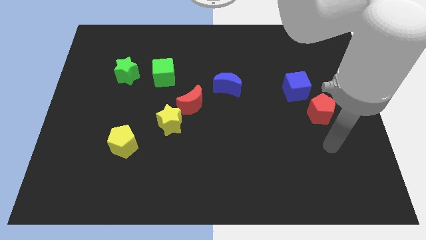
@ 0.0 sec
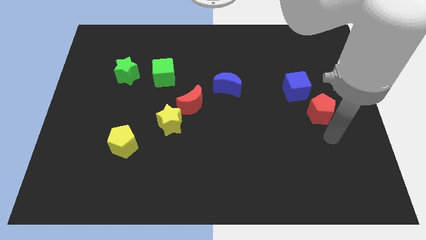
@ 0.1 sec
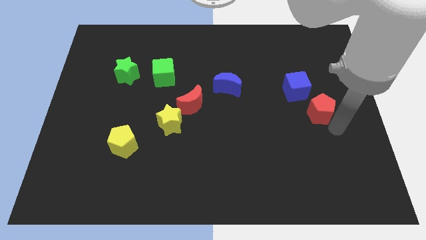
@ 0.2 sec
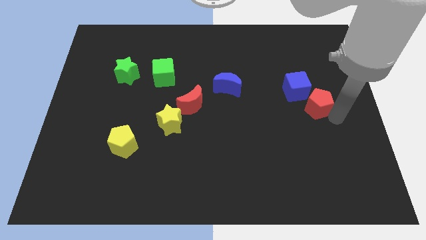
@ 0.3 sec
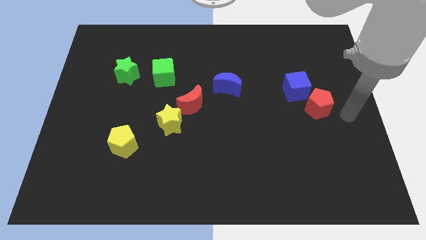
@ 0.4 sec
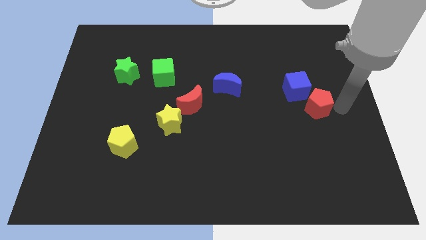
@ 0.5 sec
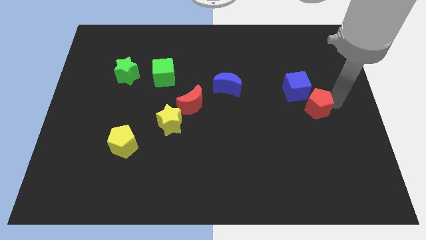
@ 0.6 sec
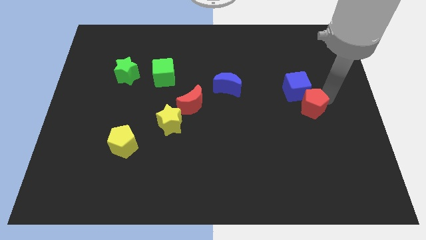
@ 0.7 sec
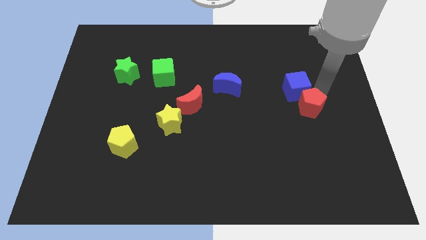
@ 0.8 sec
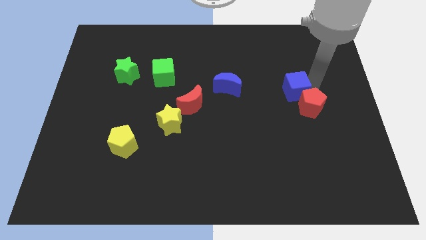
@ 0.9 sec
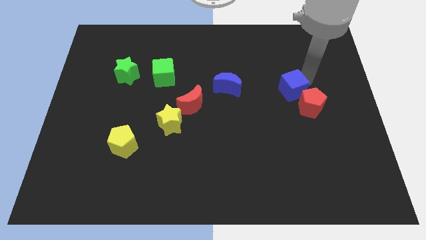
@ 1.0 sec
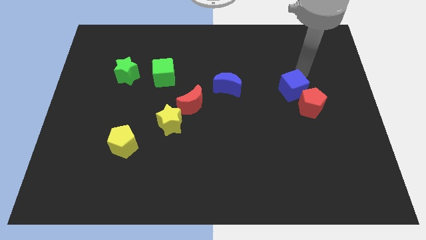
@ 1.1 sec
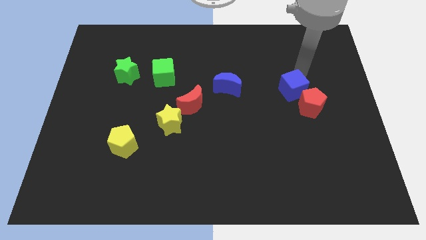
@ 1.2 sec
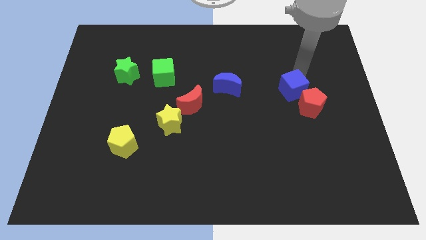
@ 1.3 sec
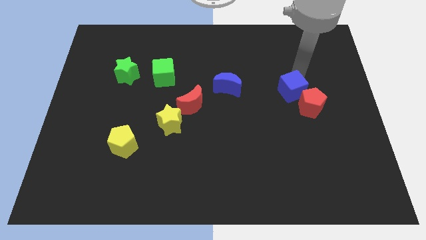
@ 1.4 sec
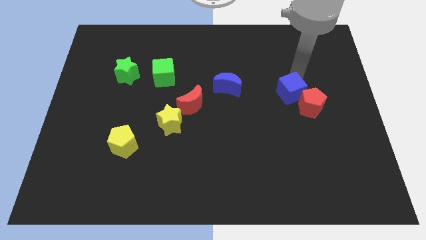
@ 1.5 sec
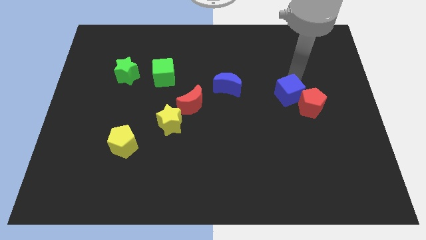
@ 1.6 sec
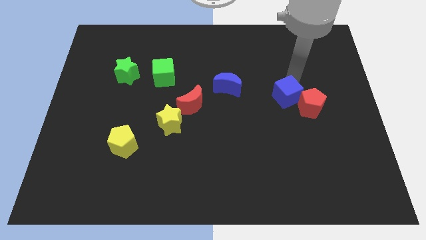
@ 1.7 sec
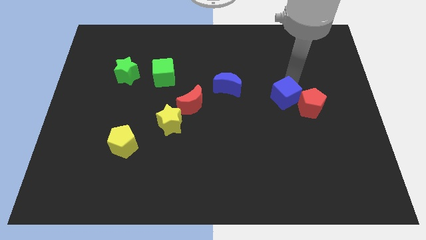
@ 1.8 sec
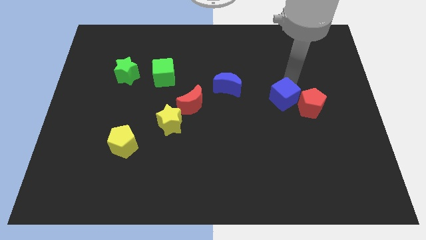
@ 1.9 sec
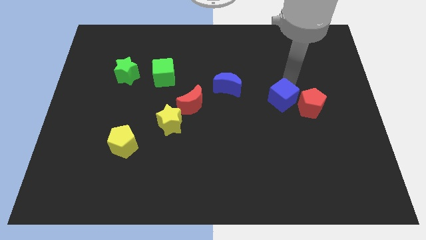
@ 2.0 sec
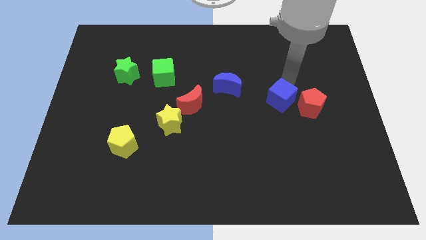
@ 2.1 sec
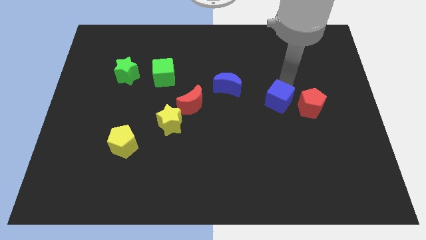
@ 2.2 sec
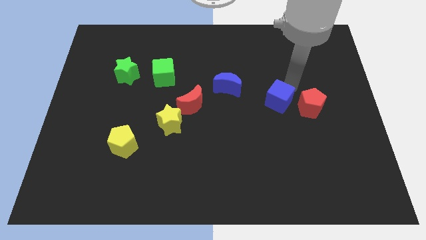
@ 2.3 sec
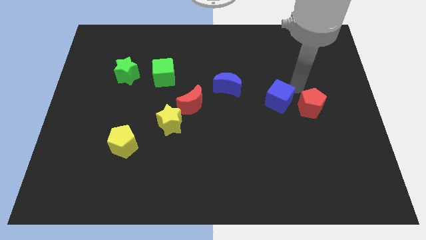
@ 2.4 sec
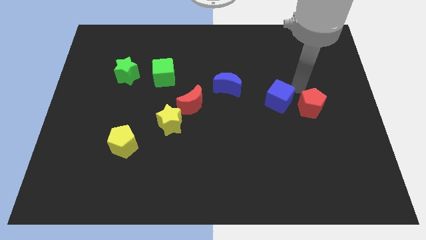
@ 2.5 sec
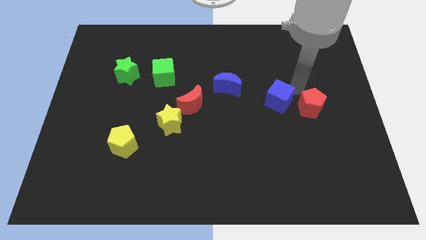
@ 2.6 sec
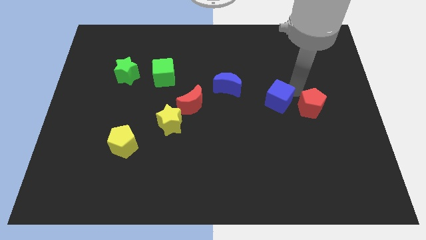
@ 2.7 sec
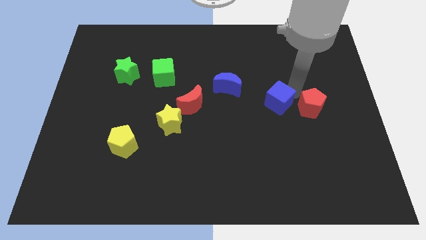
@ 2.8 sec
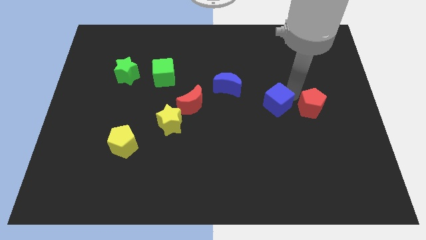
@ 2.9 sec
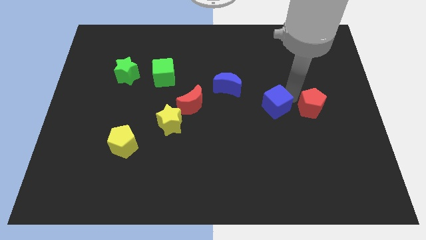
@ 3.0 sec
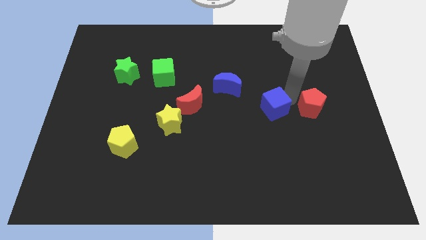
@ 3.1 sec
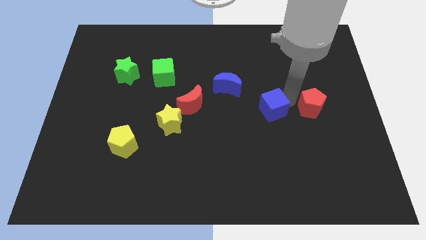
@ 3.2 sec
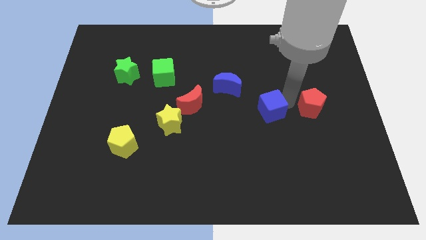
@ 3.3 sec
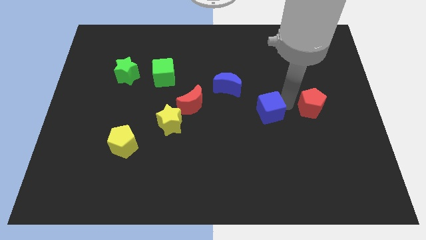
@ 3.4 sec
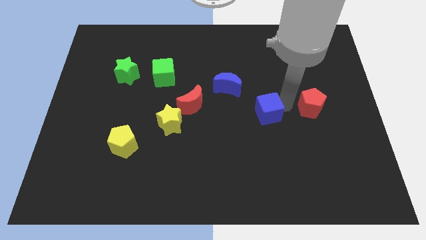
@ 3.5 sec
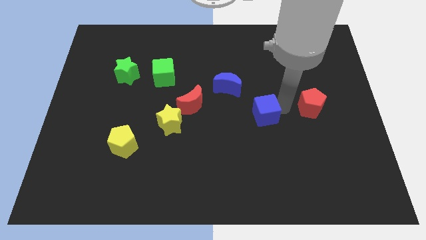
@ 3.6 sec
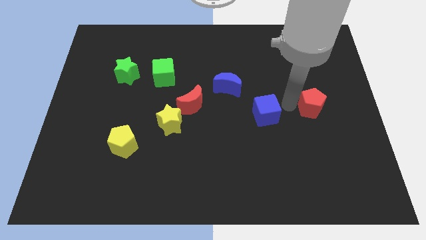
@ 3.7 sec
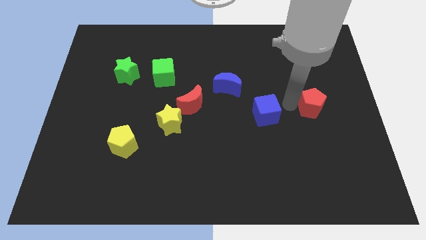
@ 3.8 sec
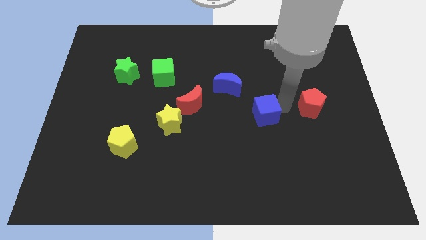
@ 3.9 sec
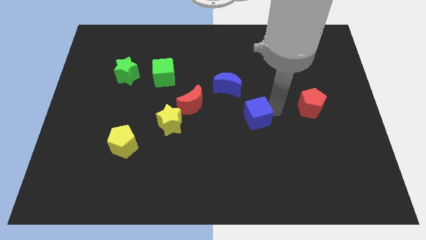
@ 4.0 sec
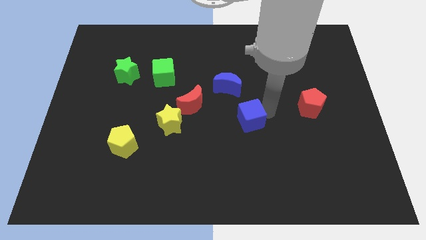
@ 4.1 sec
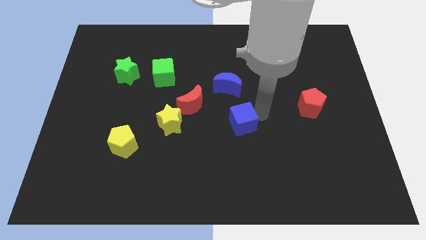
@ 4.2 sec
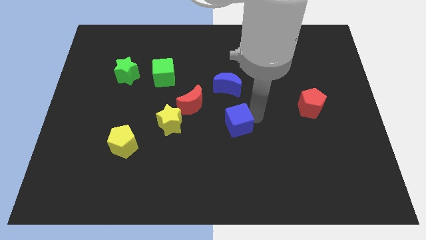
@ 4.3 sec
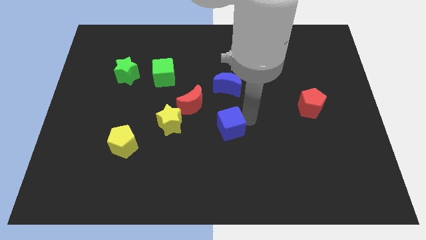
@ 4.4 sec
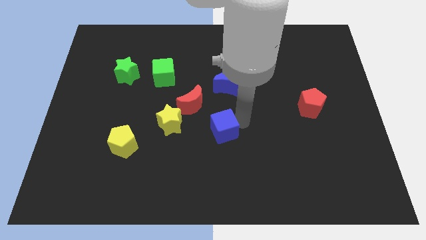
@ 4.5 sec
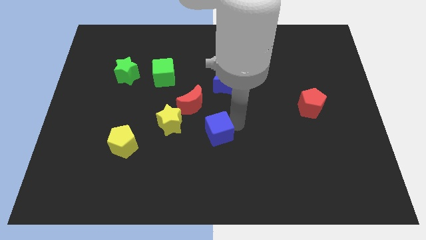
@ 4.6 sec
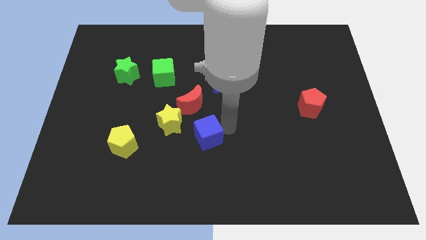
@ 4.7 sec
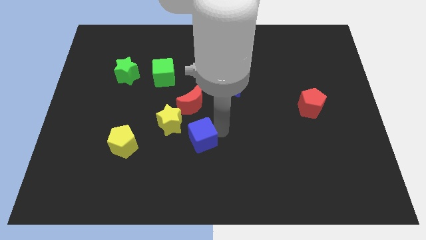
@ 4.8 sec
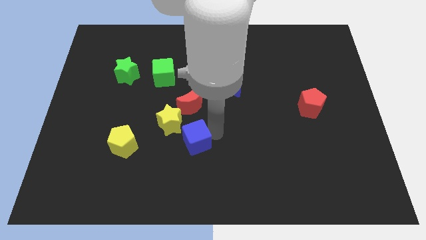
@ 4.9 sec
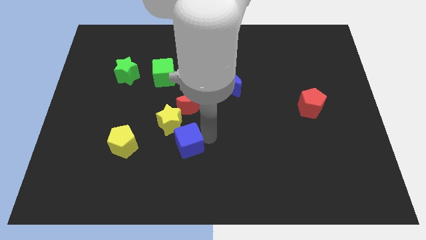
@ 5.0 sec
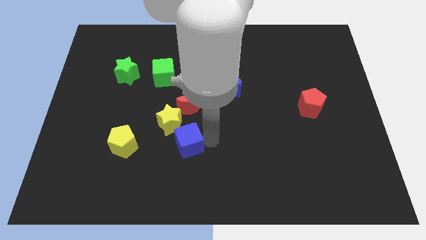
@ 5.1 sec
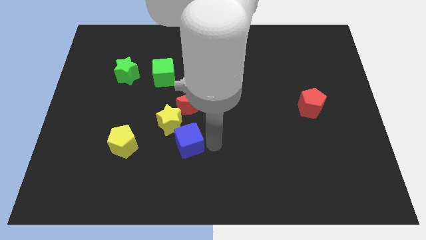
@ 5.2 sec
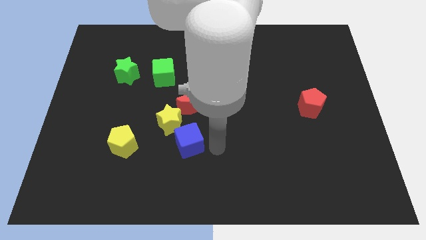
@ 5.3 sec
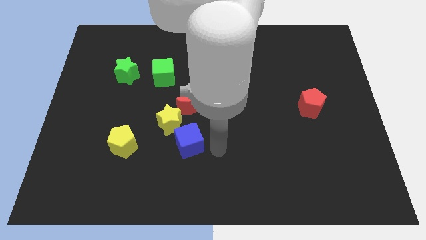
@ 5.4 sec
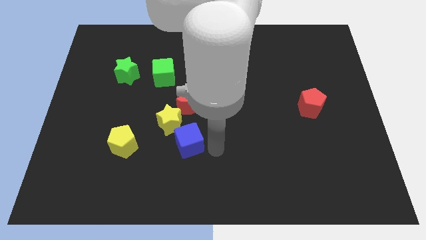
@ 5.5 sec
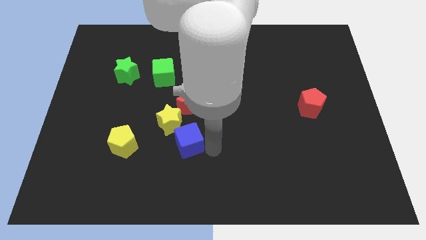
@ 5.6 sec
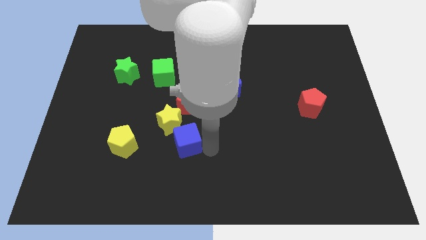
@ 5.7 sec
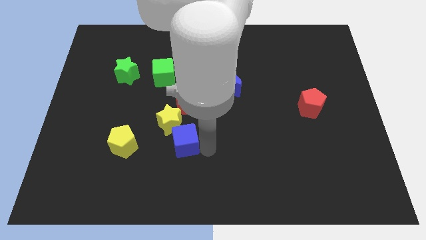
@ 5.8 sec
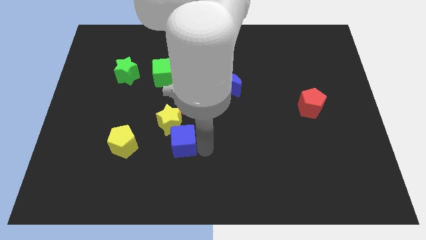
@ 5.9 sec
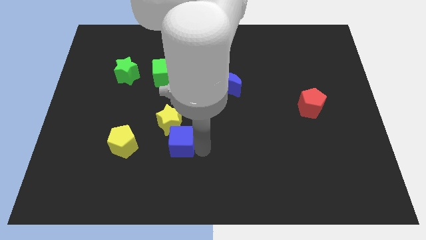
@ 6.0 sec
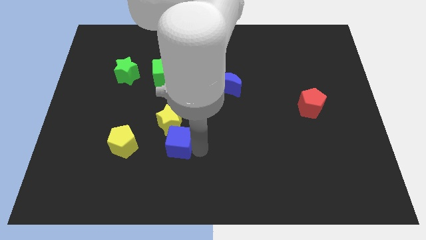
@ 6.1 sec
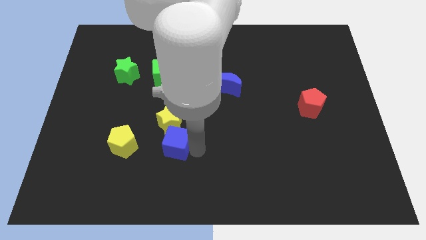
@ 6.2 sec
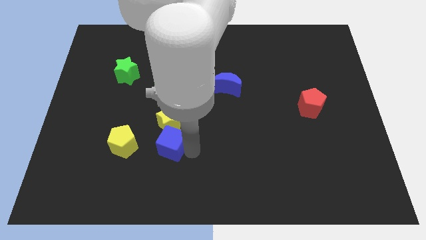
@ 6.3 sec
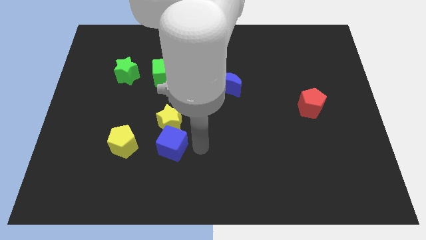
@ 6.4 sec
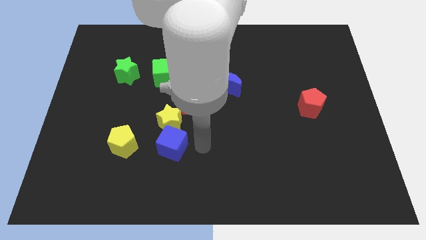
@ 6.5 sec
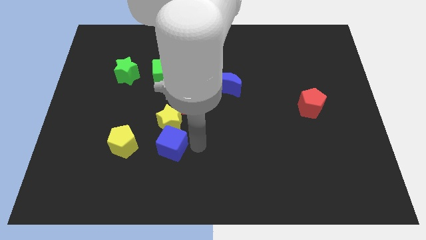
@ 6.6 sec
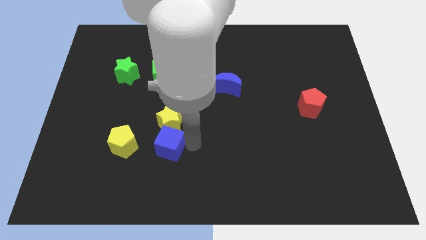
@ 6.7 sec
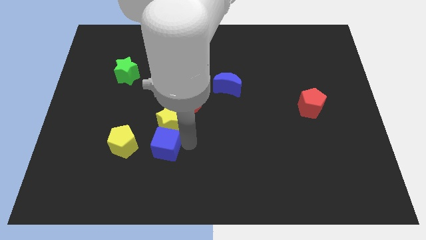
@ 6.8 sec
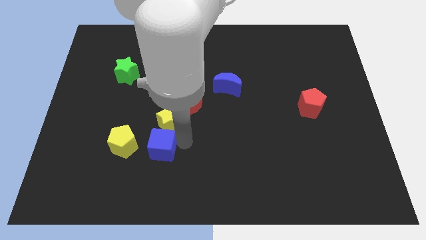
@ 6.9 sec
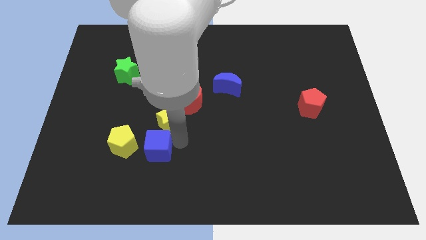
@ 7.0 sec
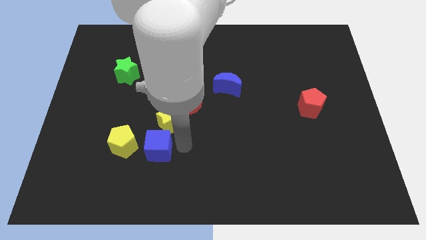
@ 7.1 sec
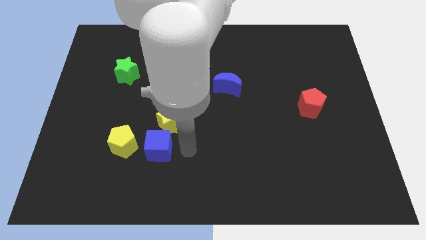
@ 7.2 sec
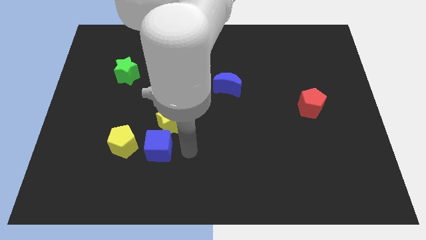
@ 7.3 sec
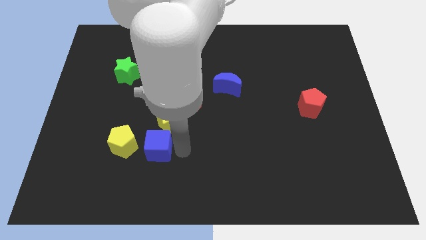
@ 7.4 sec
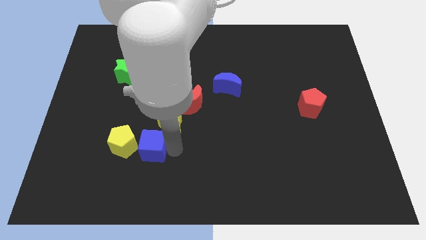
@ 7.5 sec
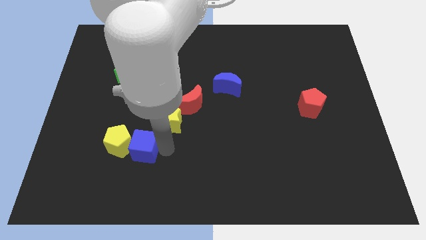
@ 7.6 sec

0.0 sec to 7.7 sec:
put the blue cube next to the yellow pentagon
